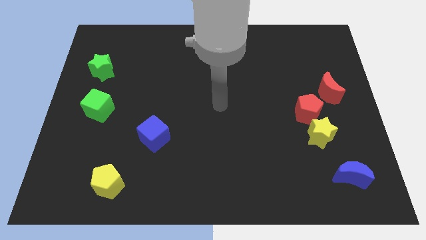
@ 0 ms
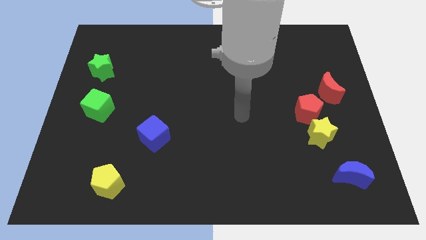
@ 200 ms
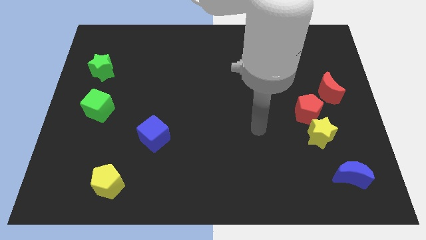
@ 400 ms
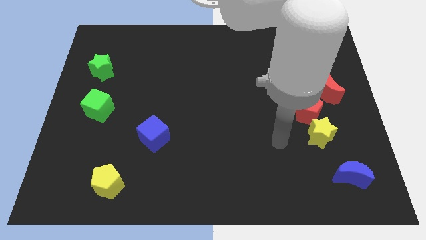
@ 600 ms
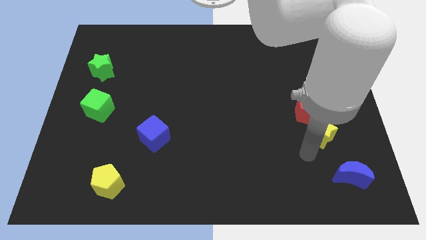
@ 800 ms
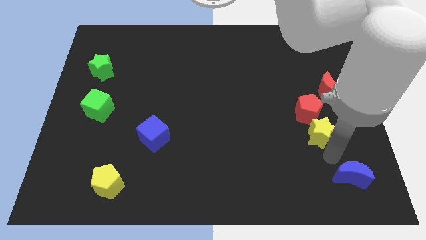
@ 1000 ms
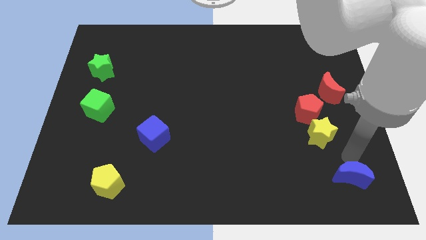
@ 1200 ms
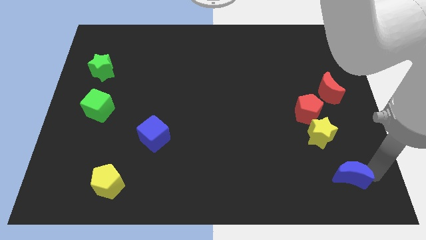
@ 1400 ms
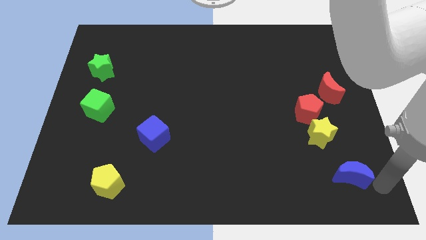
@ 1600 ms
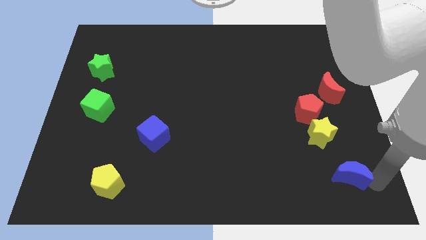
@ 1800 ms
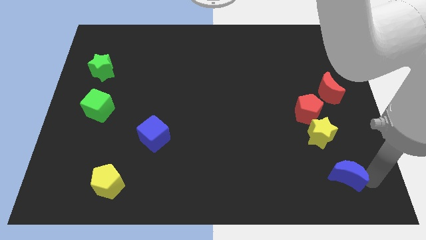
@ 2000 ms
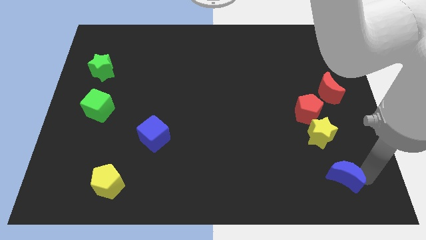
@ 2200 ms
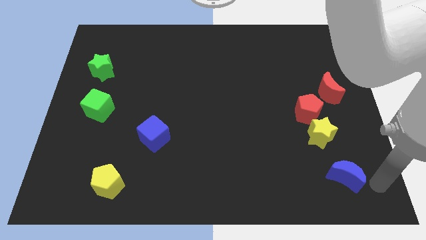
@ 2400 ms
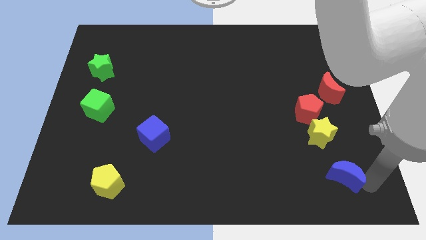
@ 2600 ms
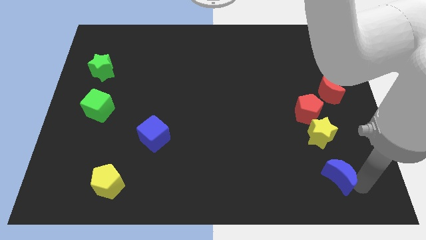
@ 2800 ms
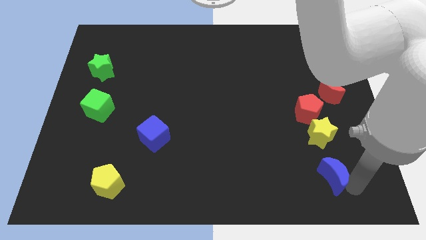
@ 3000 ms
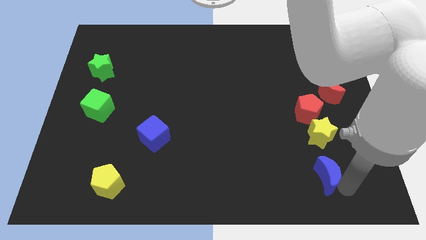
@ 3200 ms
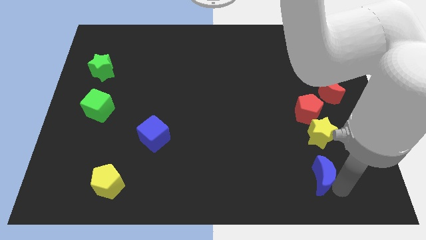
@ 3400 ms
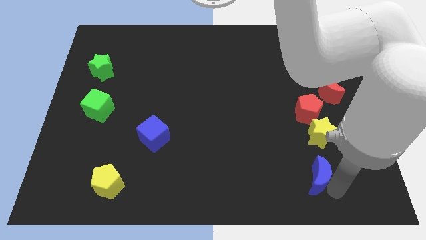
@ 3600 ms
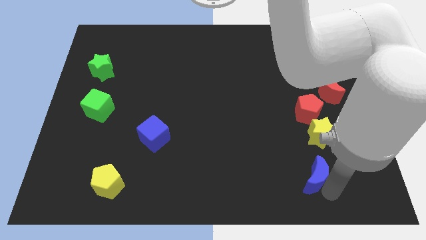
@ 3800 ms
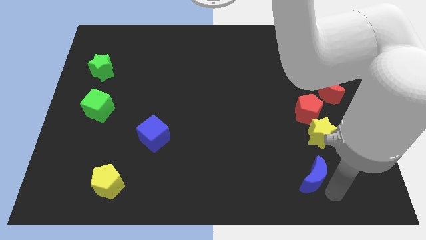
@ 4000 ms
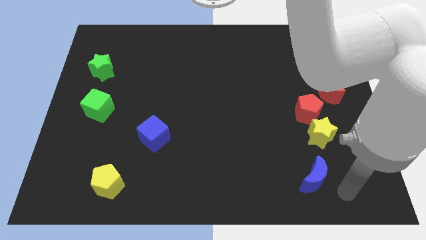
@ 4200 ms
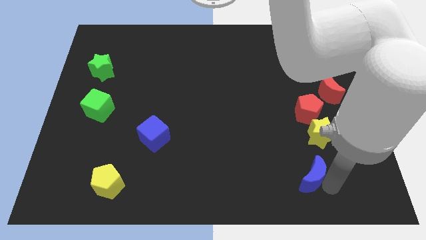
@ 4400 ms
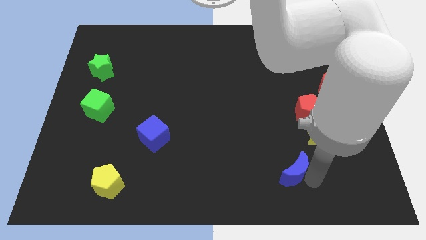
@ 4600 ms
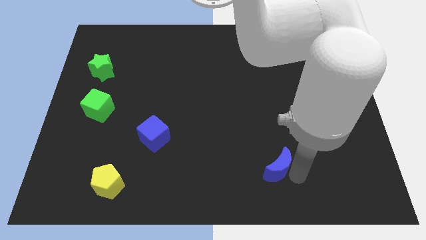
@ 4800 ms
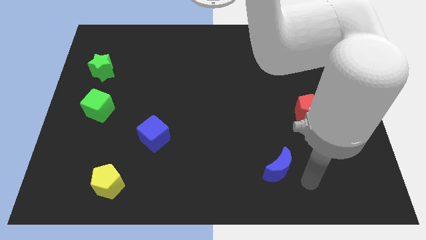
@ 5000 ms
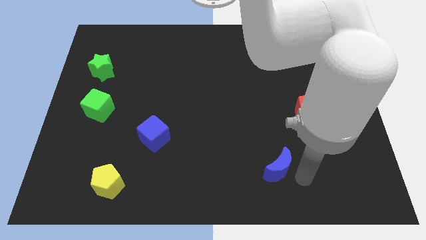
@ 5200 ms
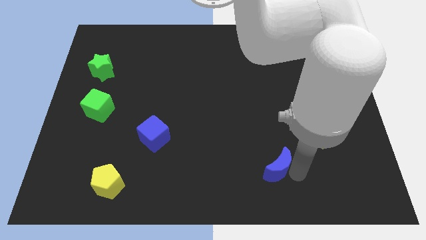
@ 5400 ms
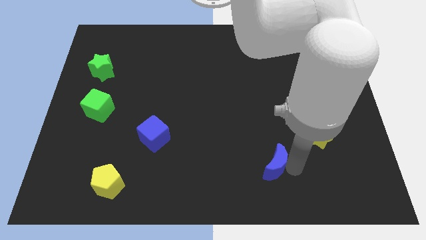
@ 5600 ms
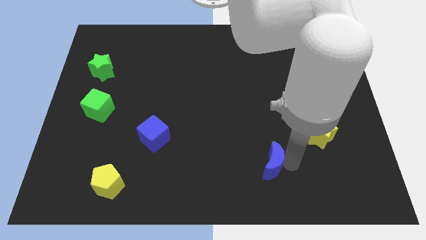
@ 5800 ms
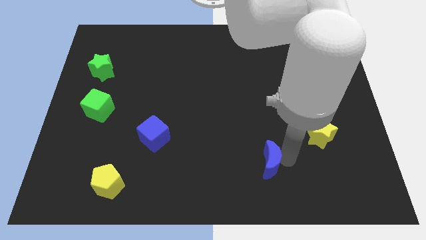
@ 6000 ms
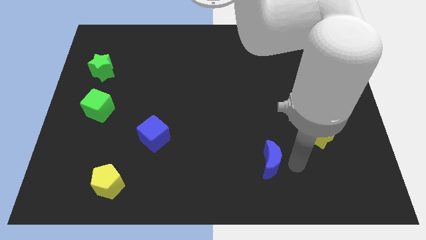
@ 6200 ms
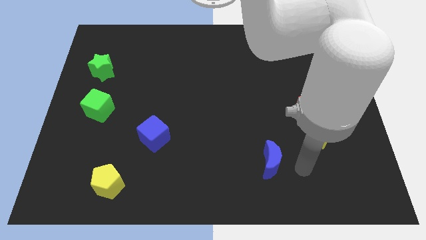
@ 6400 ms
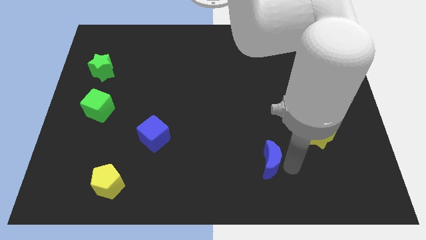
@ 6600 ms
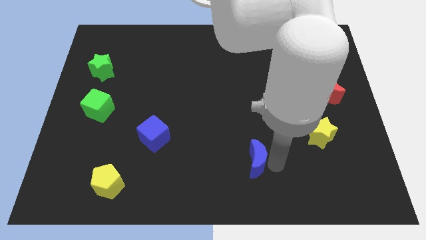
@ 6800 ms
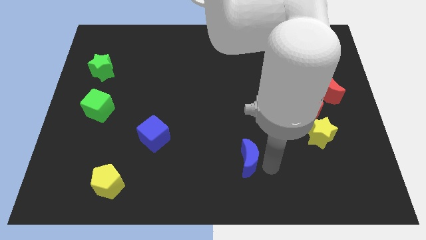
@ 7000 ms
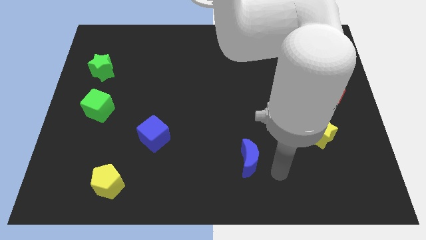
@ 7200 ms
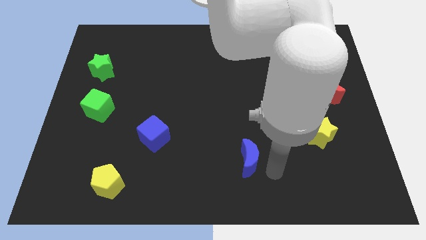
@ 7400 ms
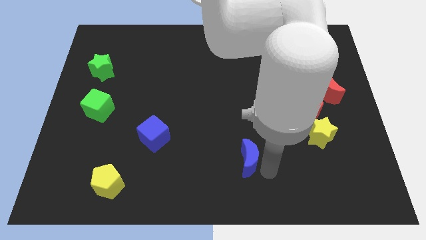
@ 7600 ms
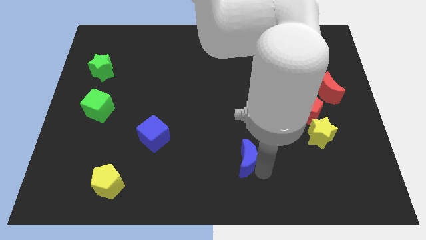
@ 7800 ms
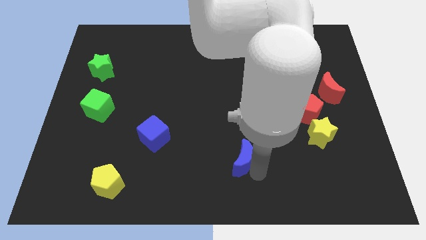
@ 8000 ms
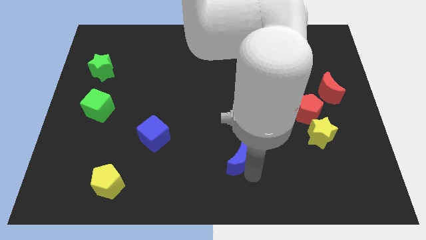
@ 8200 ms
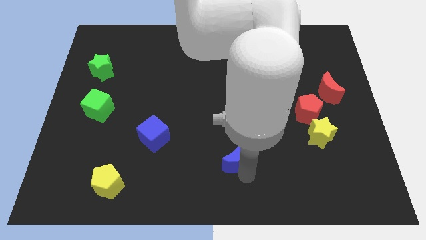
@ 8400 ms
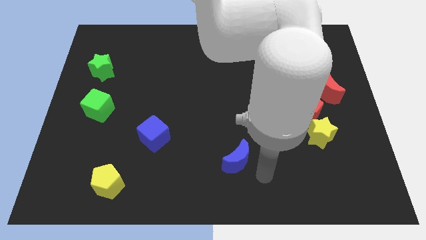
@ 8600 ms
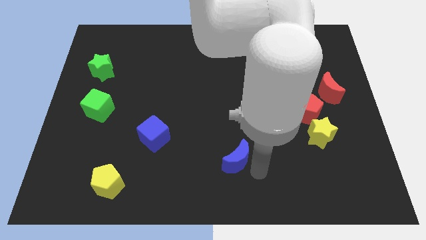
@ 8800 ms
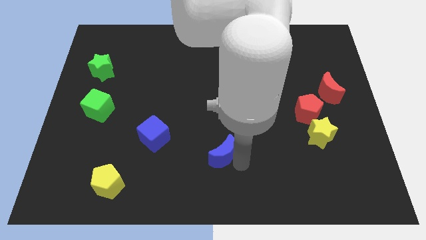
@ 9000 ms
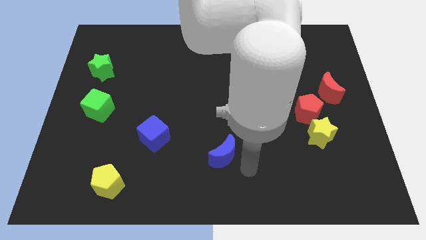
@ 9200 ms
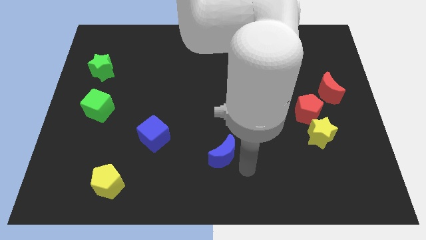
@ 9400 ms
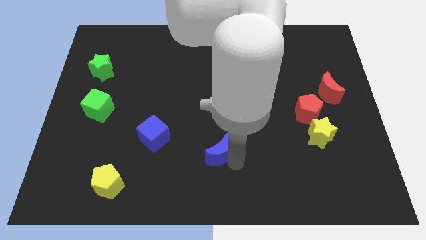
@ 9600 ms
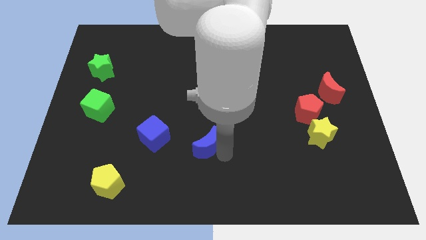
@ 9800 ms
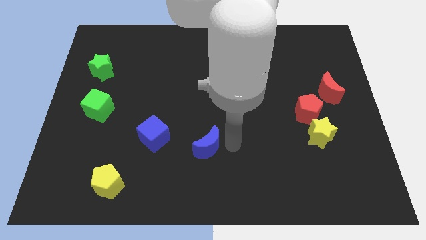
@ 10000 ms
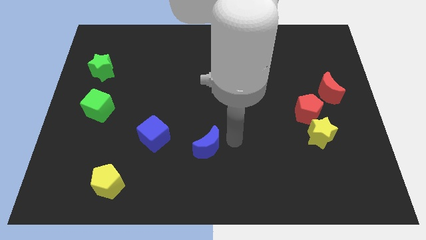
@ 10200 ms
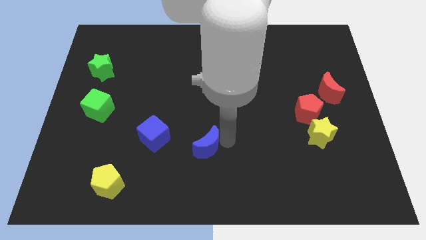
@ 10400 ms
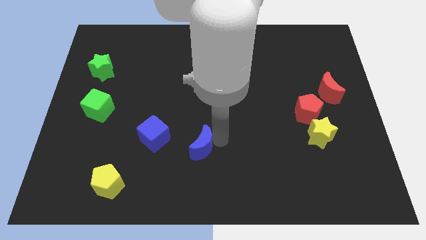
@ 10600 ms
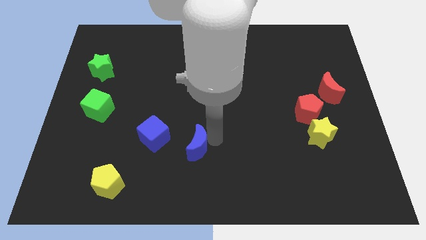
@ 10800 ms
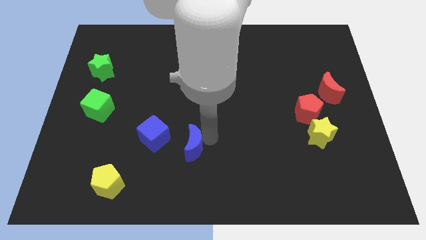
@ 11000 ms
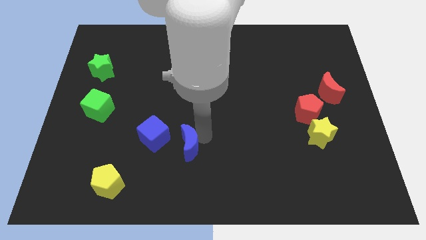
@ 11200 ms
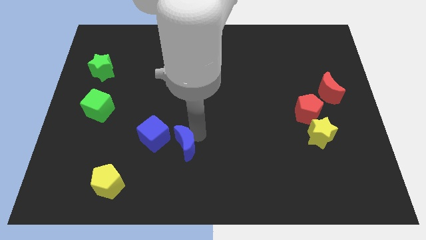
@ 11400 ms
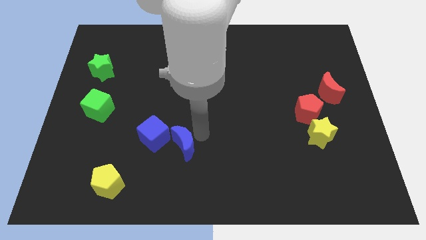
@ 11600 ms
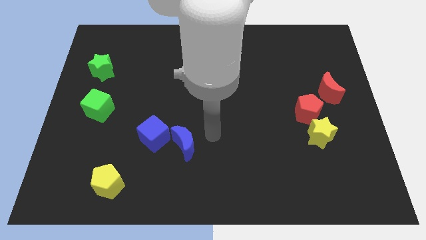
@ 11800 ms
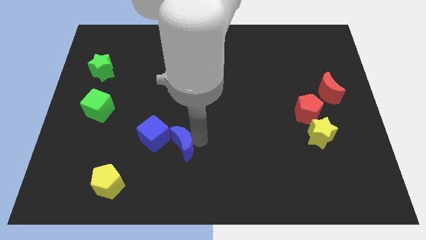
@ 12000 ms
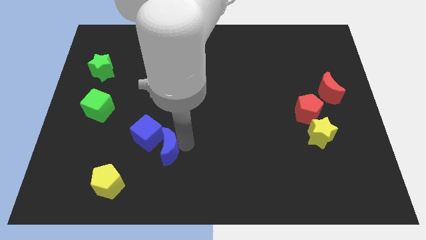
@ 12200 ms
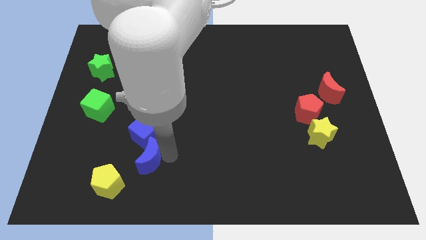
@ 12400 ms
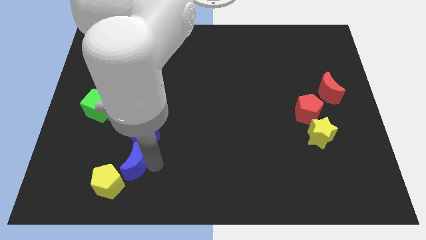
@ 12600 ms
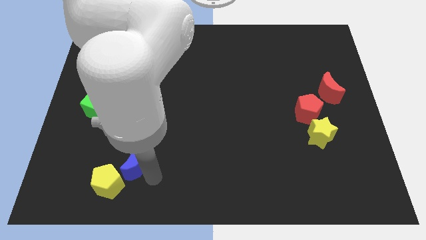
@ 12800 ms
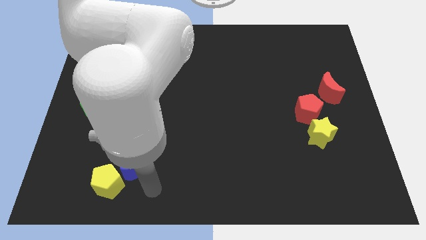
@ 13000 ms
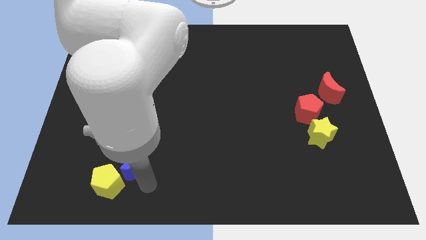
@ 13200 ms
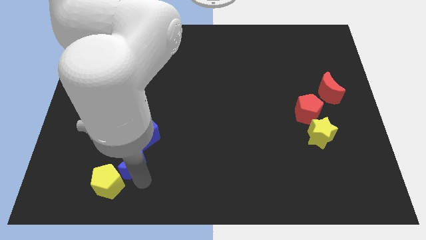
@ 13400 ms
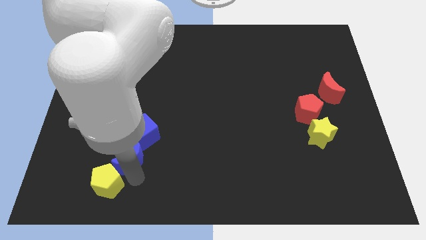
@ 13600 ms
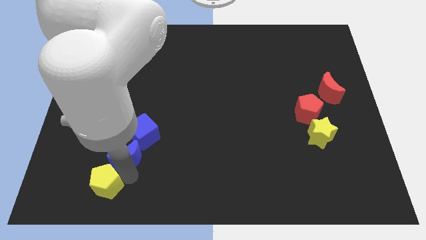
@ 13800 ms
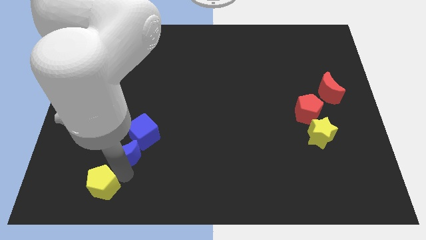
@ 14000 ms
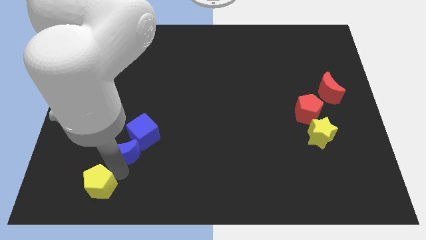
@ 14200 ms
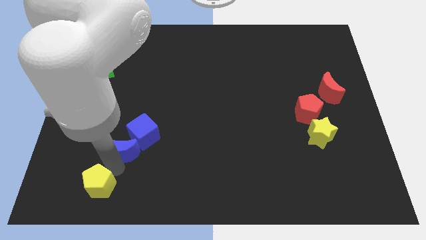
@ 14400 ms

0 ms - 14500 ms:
push the blue moon just left of the blue cube
